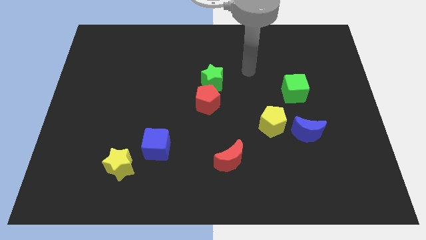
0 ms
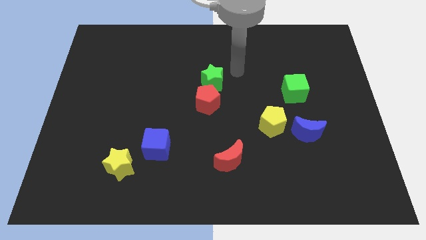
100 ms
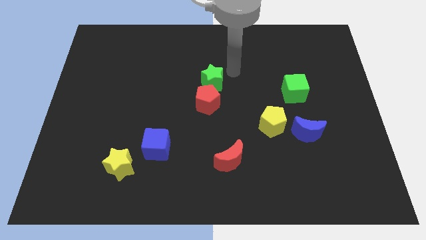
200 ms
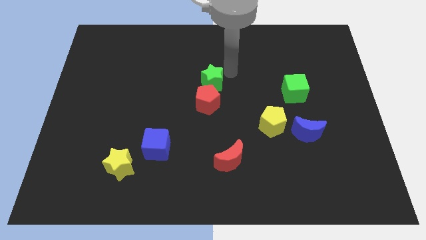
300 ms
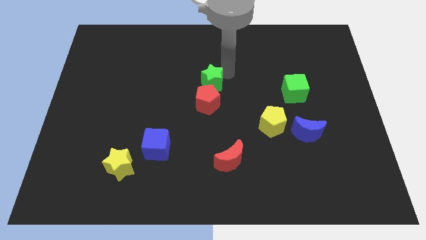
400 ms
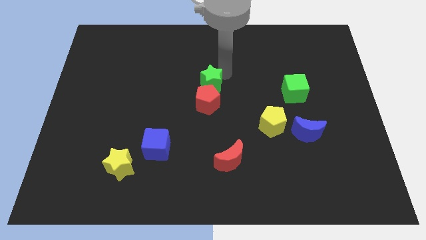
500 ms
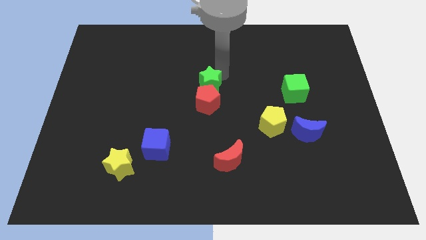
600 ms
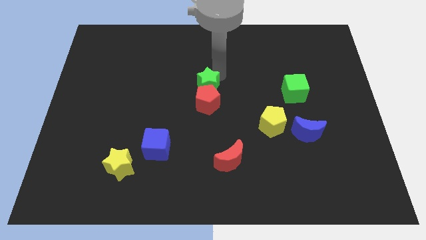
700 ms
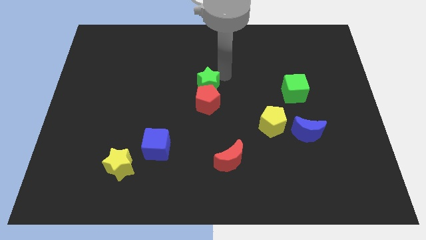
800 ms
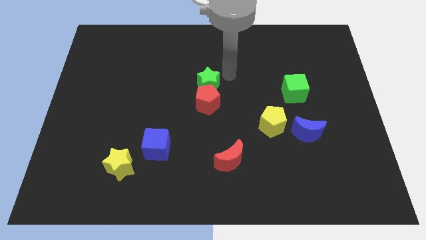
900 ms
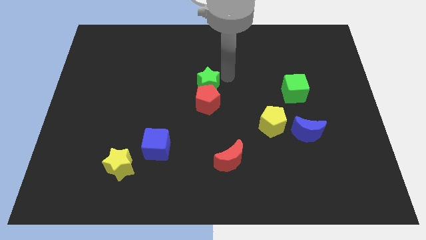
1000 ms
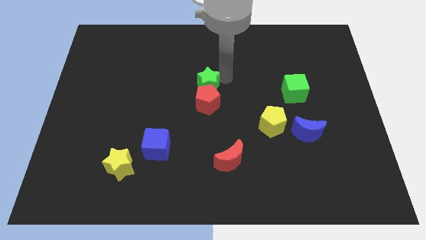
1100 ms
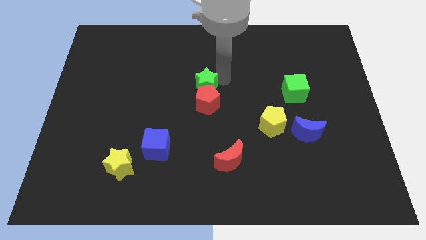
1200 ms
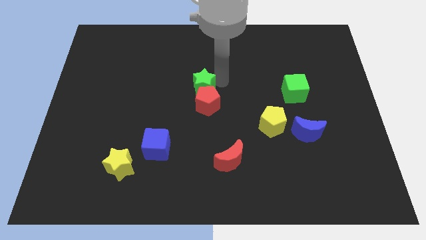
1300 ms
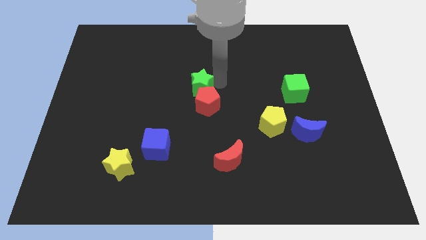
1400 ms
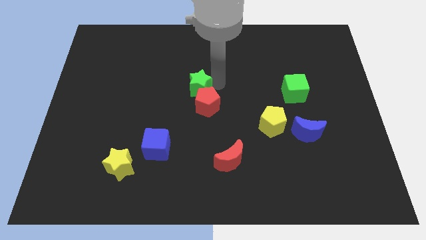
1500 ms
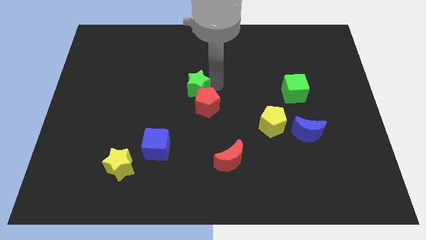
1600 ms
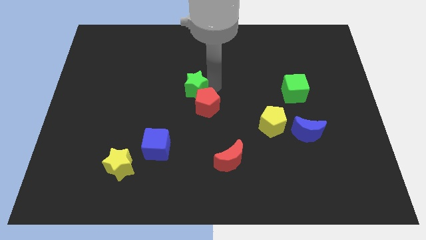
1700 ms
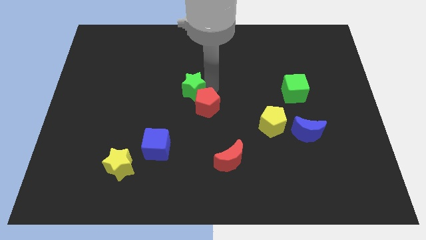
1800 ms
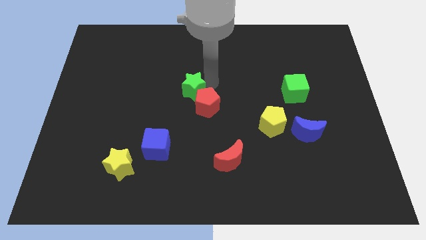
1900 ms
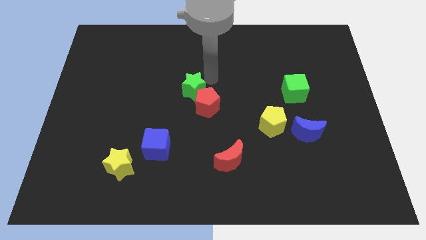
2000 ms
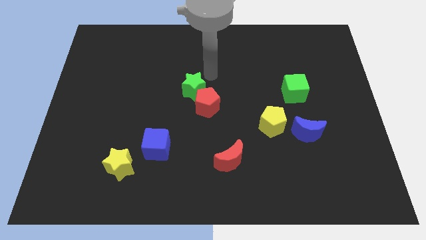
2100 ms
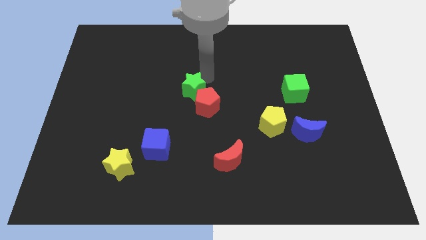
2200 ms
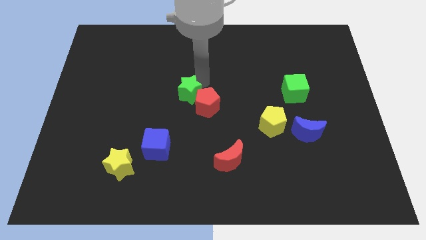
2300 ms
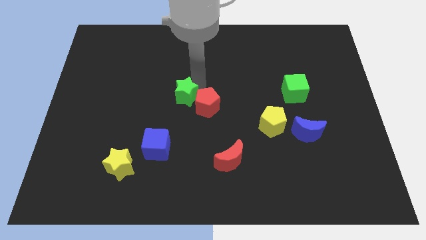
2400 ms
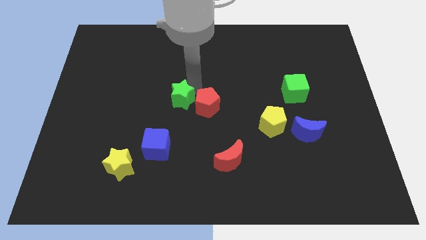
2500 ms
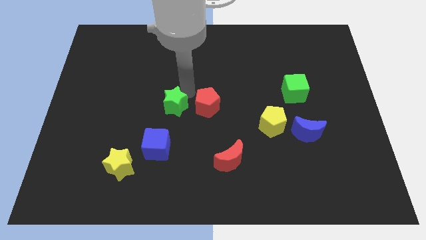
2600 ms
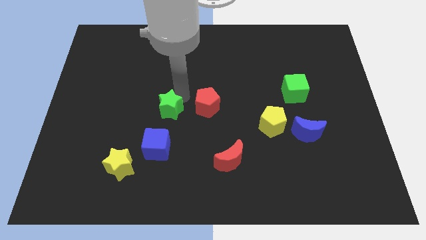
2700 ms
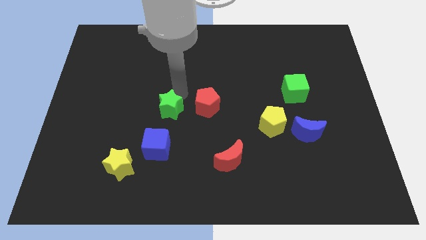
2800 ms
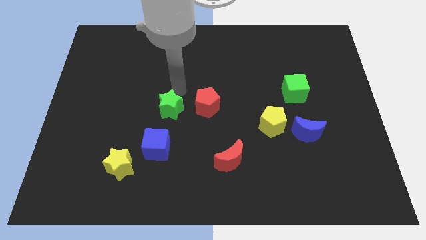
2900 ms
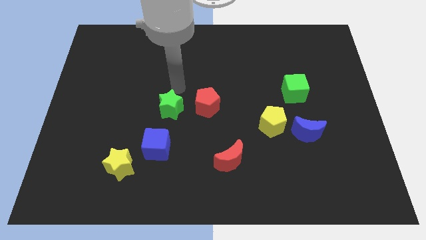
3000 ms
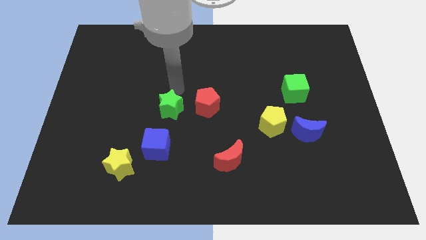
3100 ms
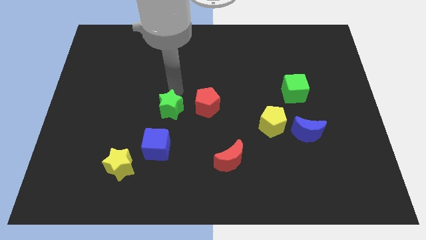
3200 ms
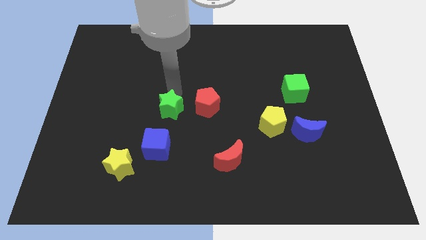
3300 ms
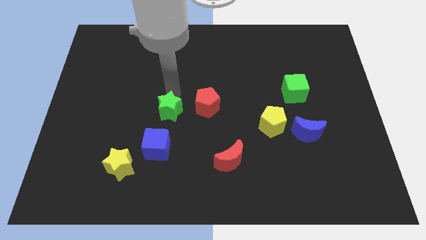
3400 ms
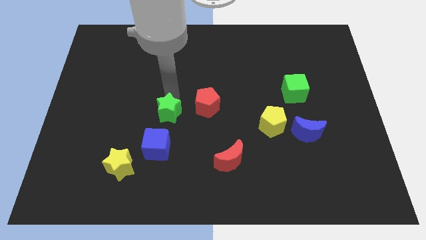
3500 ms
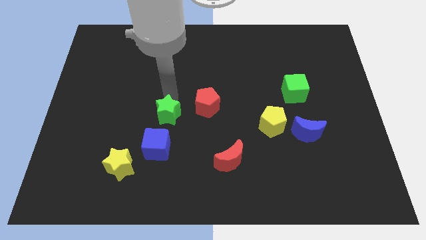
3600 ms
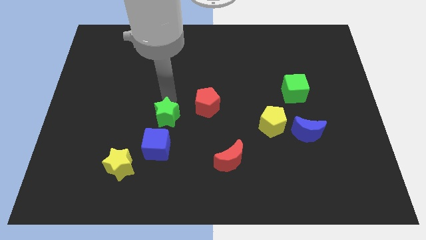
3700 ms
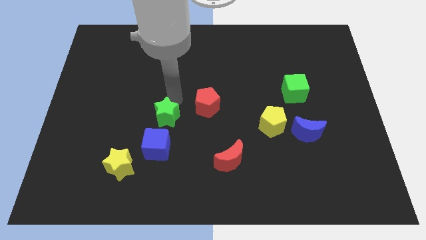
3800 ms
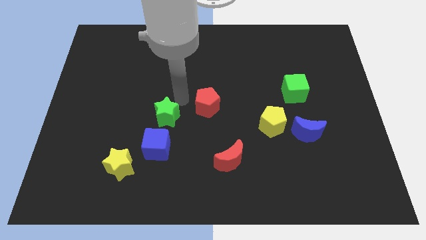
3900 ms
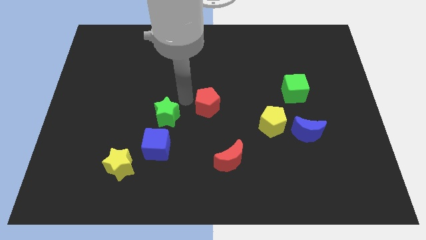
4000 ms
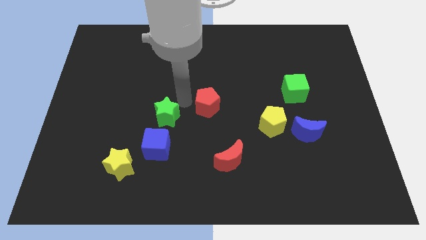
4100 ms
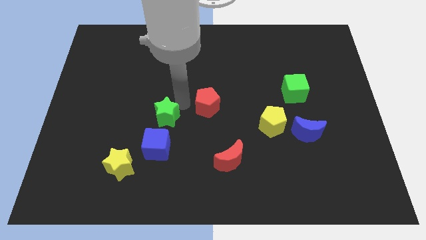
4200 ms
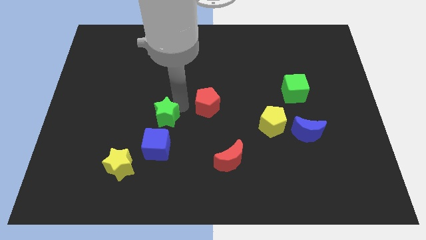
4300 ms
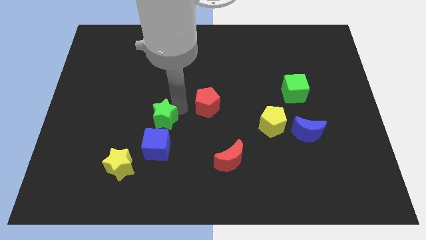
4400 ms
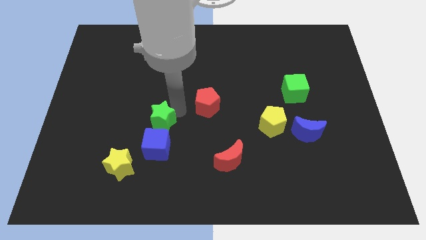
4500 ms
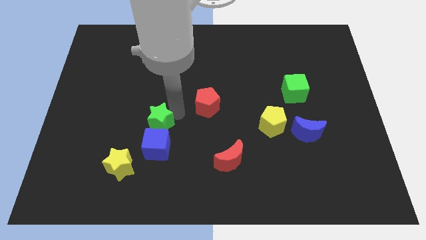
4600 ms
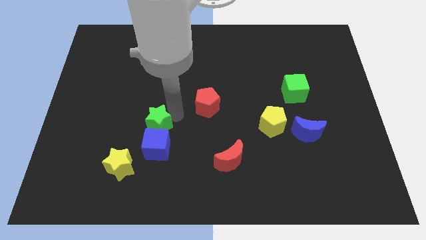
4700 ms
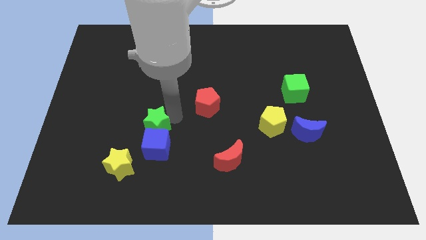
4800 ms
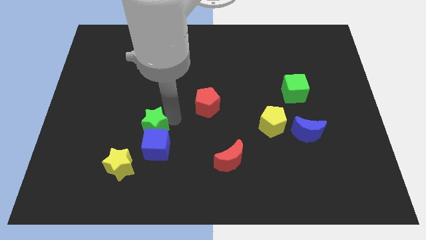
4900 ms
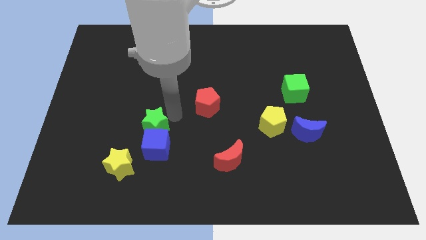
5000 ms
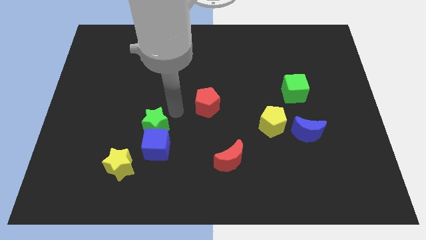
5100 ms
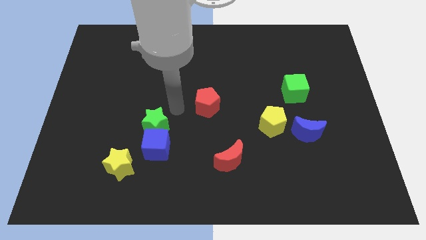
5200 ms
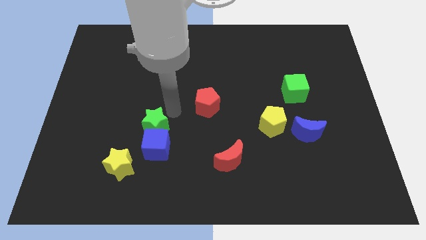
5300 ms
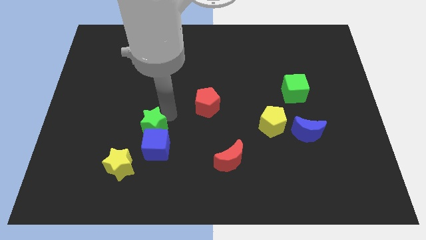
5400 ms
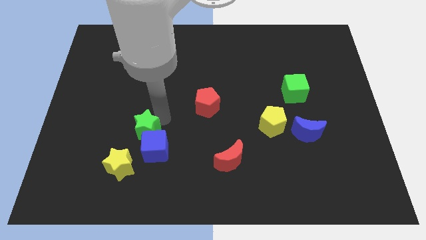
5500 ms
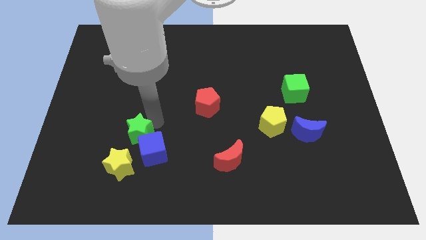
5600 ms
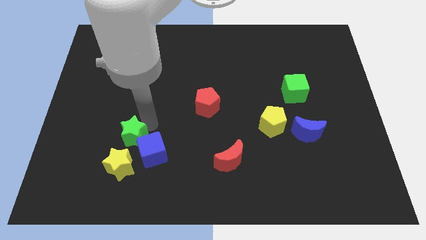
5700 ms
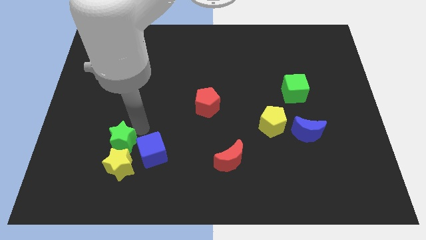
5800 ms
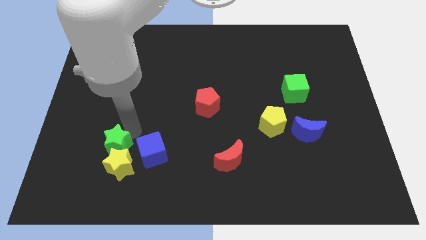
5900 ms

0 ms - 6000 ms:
put the green star next to the yellow star
